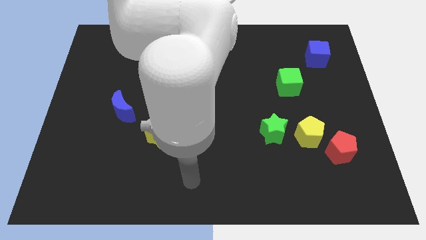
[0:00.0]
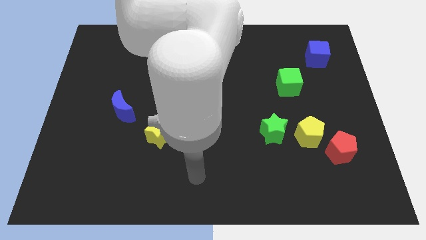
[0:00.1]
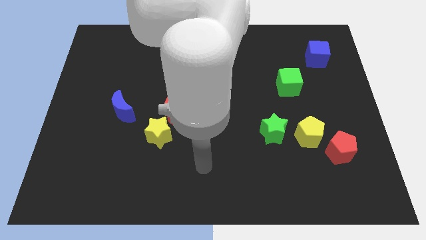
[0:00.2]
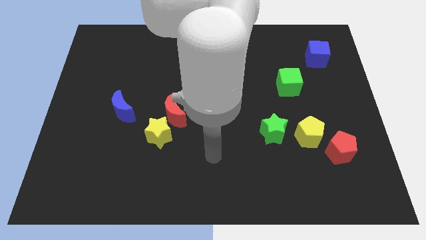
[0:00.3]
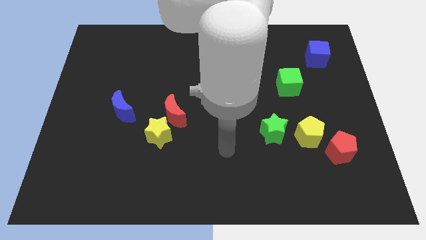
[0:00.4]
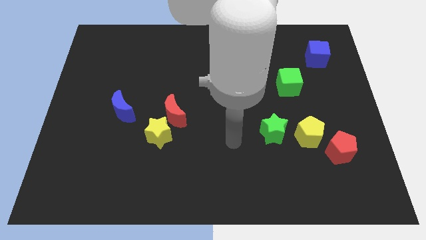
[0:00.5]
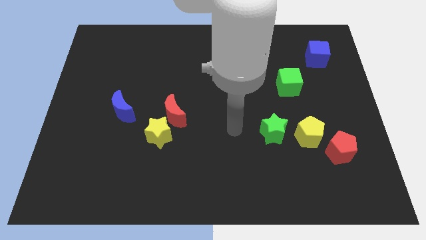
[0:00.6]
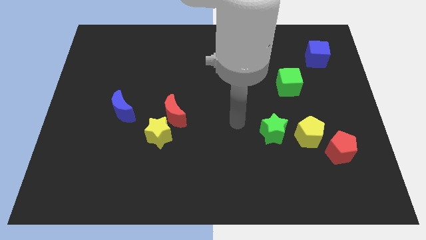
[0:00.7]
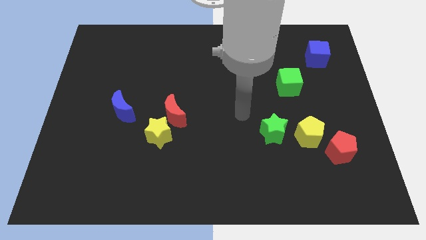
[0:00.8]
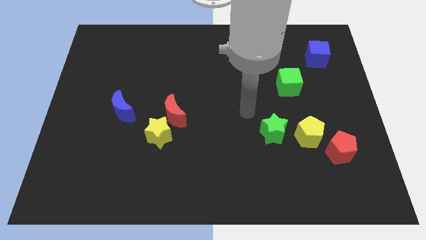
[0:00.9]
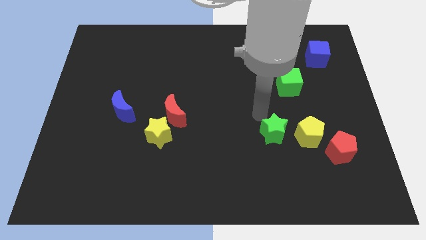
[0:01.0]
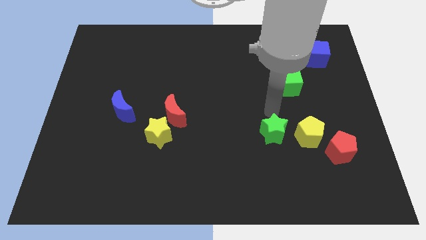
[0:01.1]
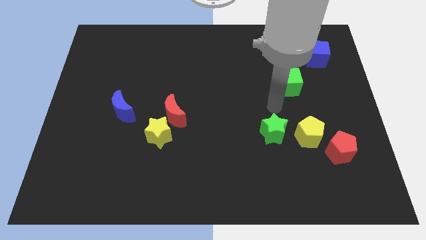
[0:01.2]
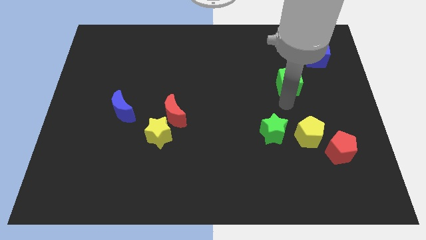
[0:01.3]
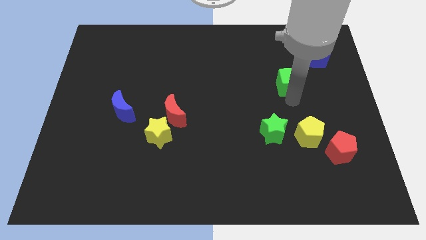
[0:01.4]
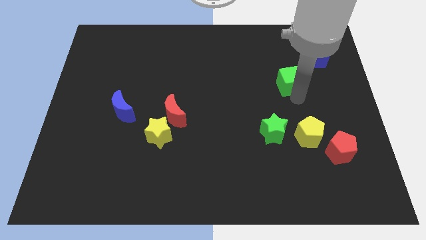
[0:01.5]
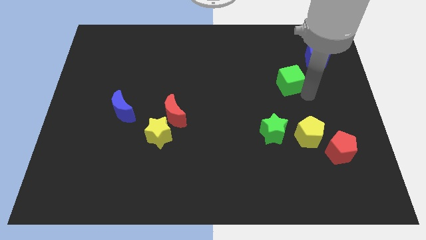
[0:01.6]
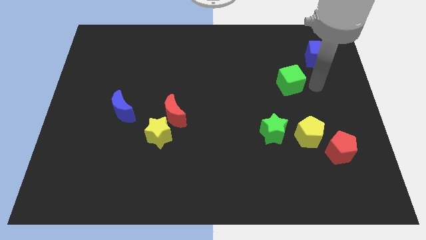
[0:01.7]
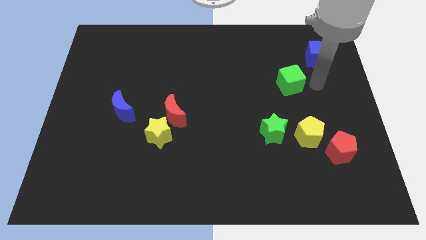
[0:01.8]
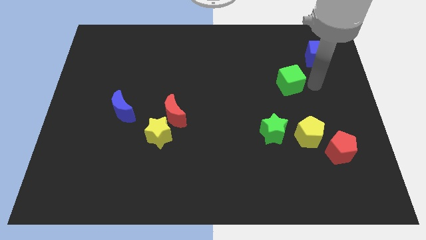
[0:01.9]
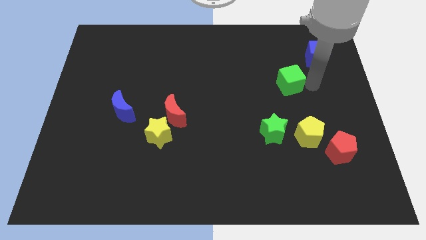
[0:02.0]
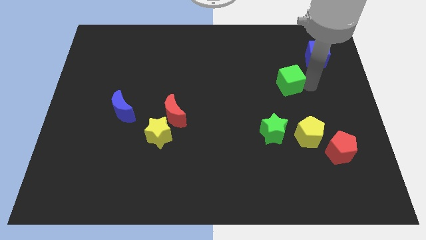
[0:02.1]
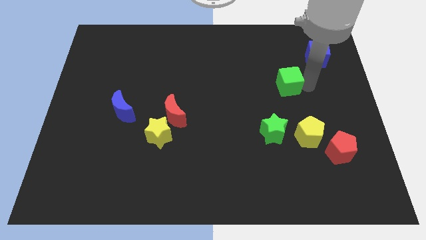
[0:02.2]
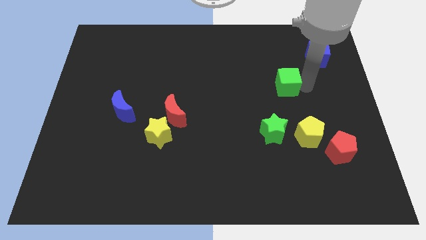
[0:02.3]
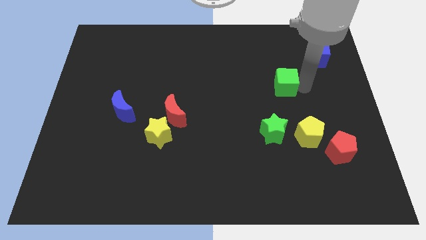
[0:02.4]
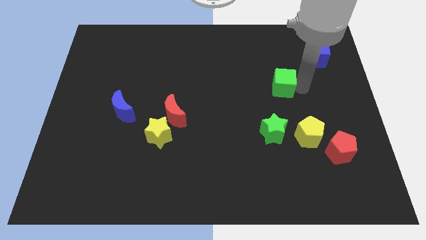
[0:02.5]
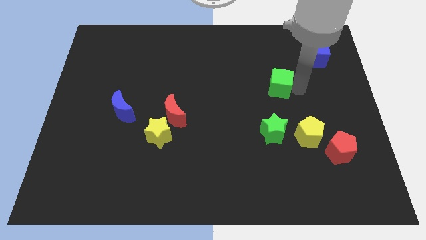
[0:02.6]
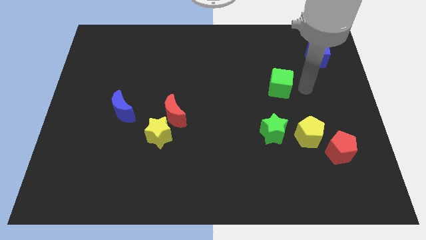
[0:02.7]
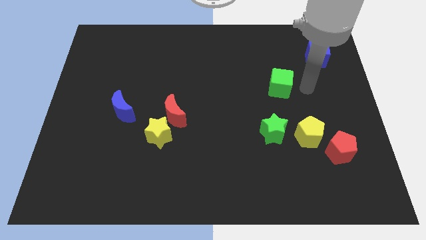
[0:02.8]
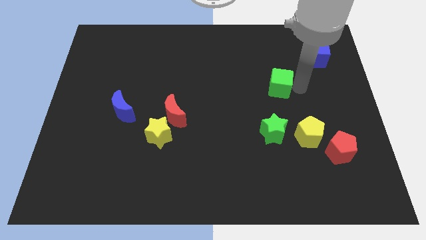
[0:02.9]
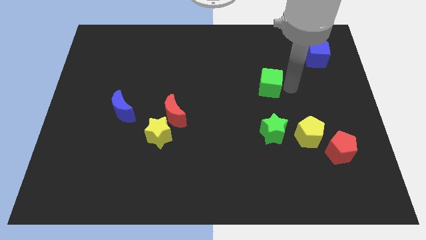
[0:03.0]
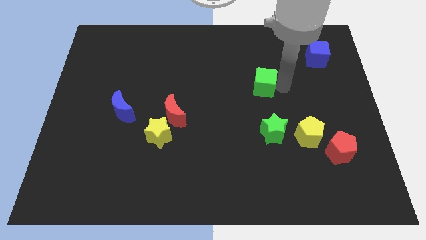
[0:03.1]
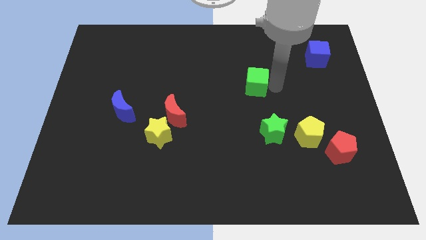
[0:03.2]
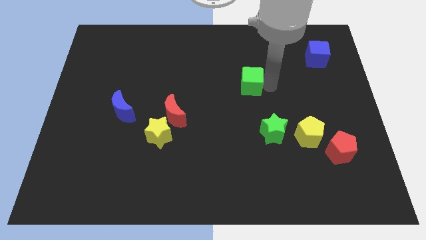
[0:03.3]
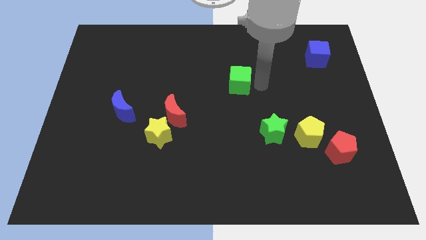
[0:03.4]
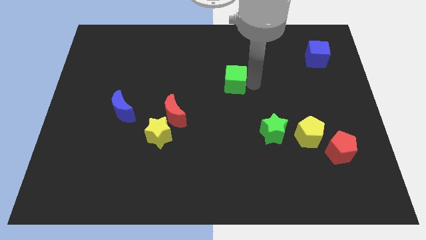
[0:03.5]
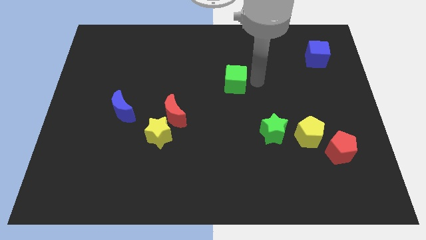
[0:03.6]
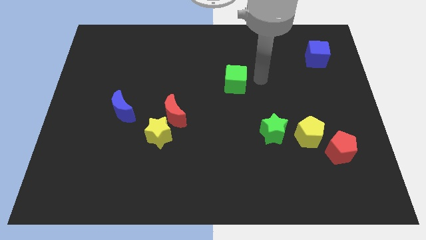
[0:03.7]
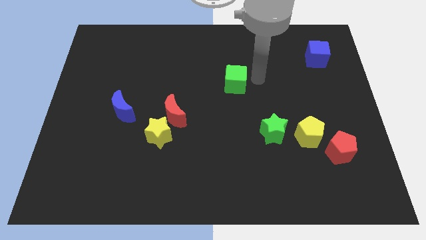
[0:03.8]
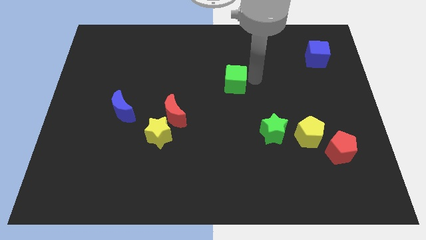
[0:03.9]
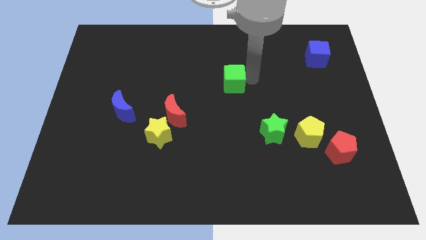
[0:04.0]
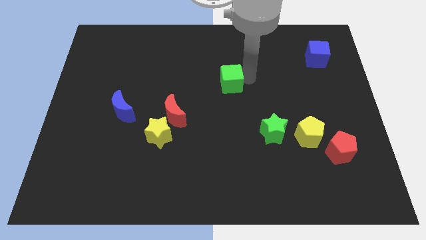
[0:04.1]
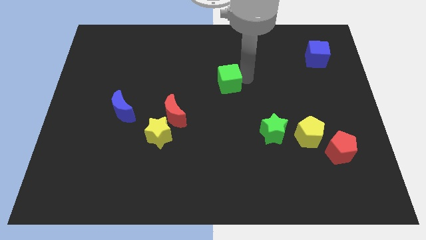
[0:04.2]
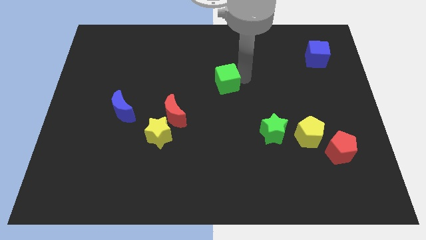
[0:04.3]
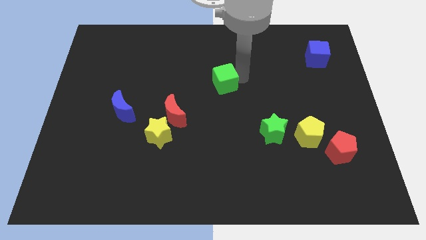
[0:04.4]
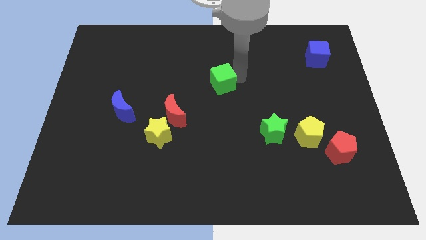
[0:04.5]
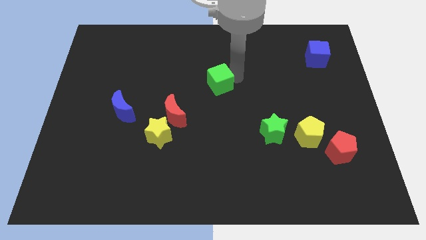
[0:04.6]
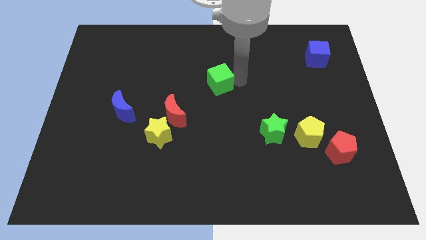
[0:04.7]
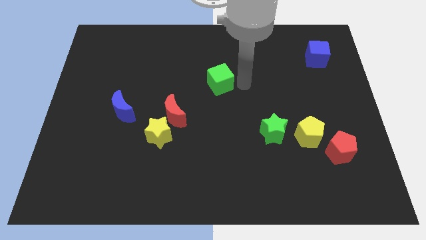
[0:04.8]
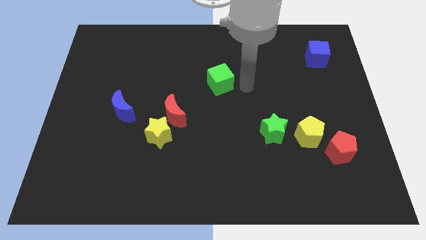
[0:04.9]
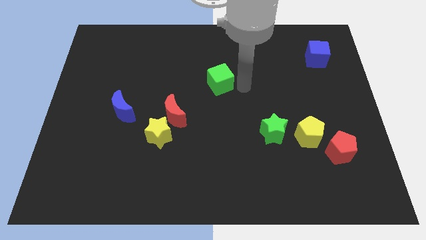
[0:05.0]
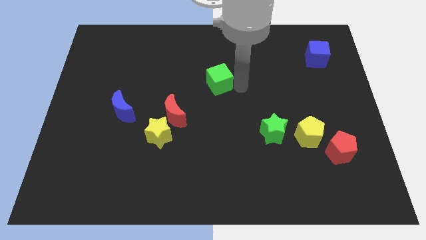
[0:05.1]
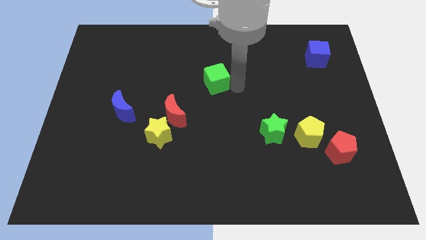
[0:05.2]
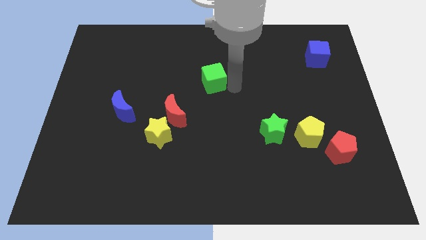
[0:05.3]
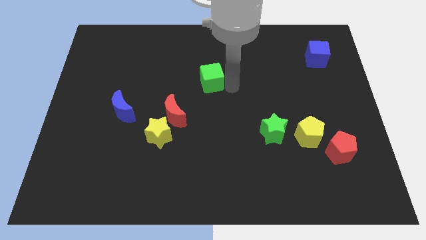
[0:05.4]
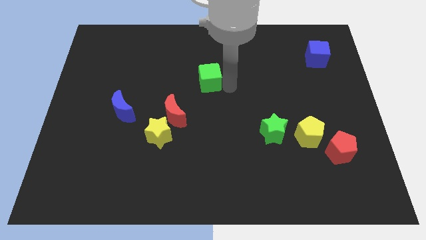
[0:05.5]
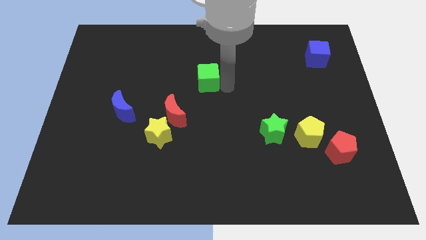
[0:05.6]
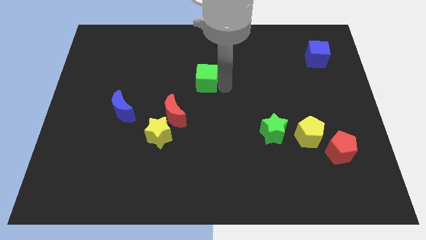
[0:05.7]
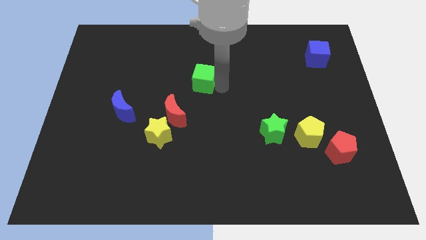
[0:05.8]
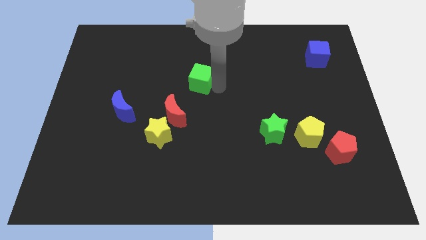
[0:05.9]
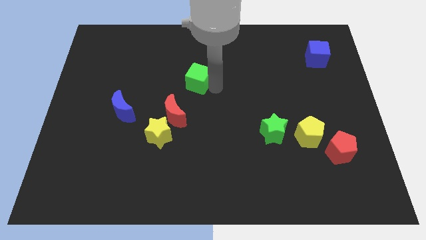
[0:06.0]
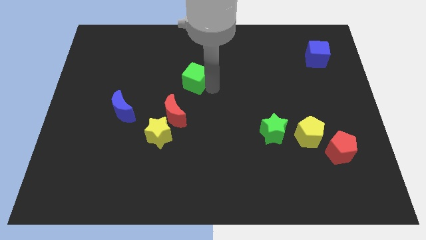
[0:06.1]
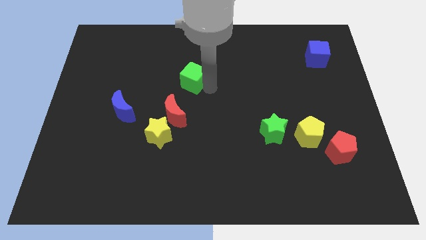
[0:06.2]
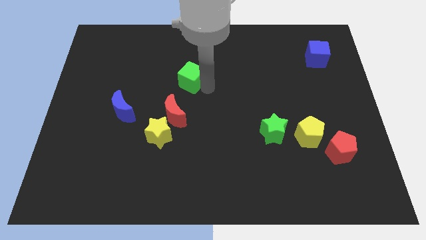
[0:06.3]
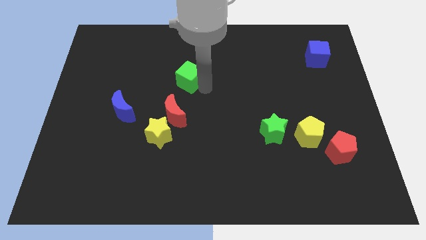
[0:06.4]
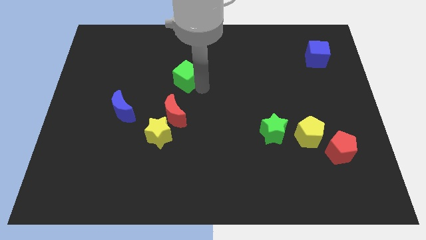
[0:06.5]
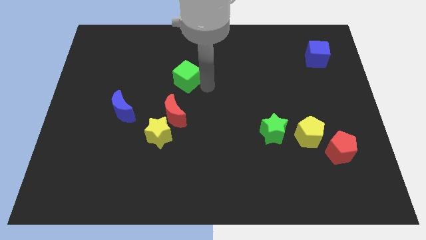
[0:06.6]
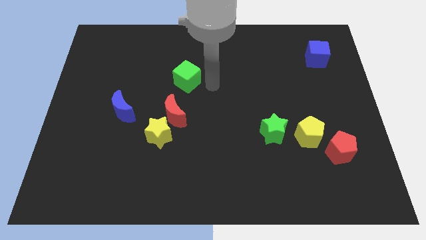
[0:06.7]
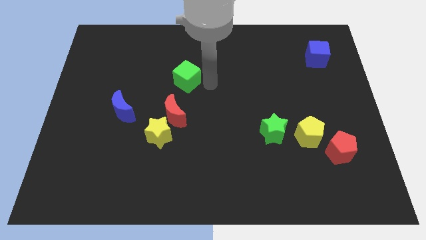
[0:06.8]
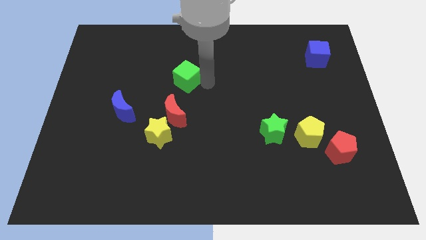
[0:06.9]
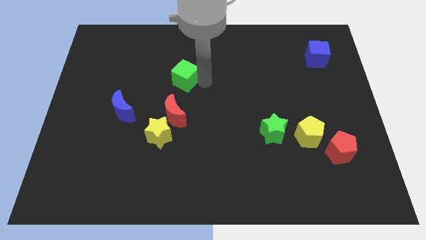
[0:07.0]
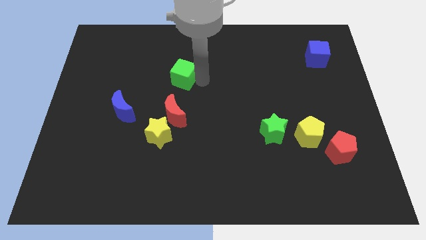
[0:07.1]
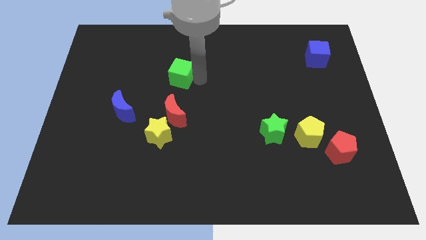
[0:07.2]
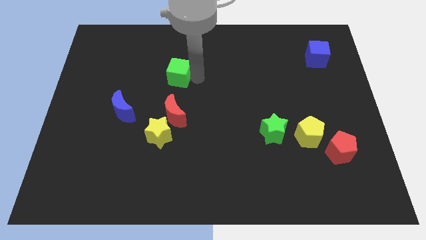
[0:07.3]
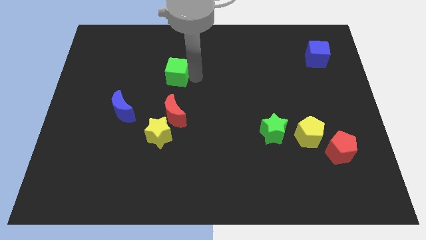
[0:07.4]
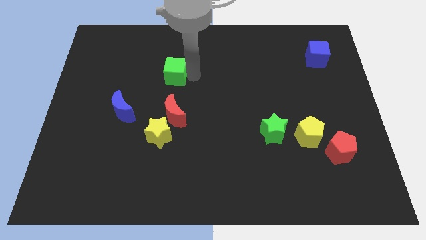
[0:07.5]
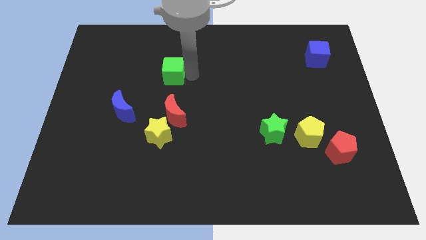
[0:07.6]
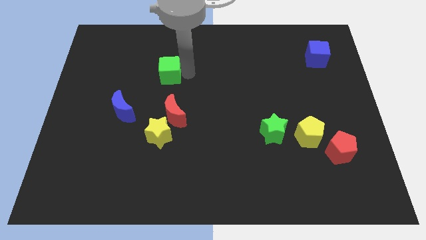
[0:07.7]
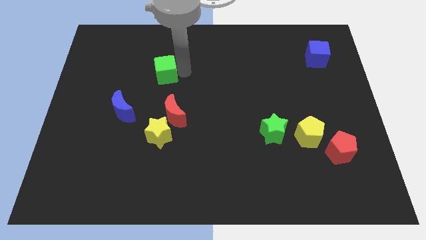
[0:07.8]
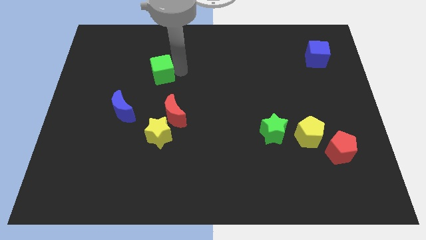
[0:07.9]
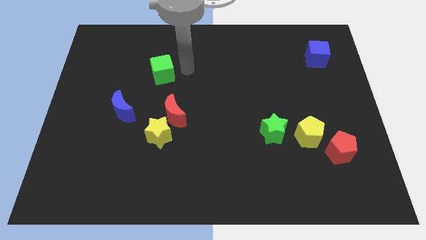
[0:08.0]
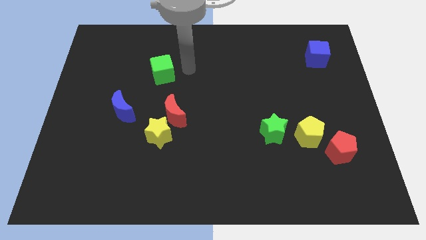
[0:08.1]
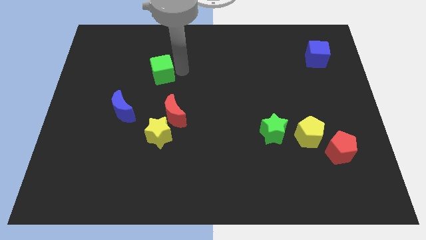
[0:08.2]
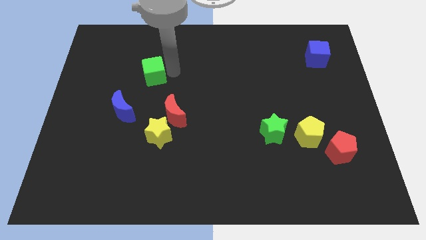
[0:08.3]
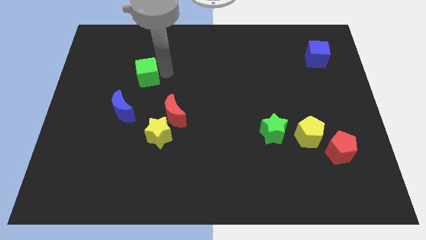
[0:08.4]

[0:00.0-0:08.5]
push the green cube to the top of the blue moon
